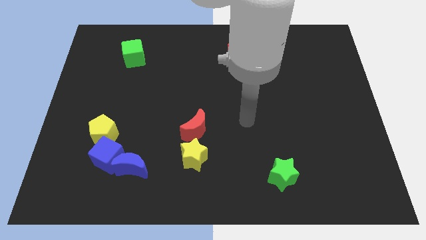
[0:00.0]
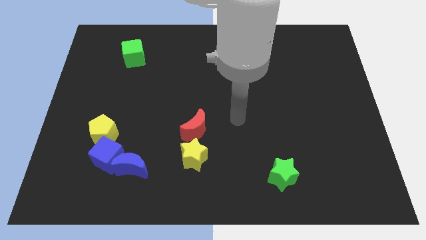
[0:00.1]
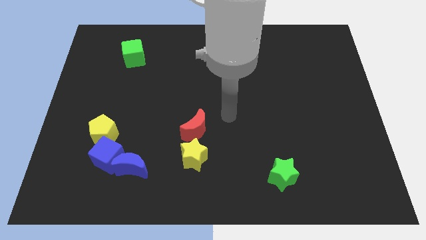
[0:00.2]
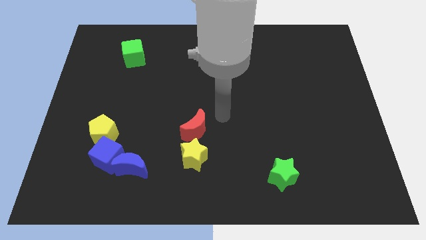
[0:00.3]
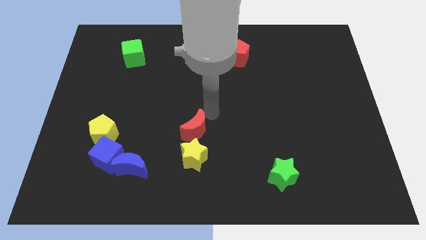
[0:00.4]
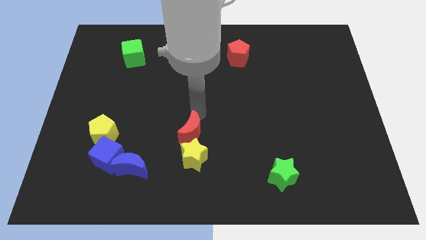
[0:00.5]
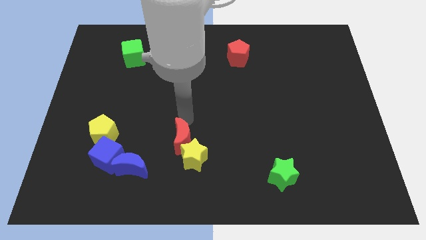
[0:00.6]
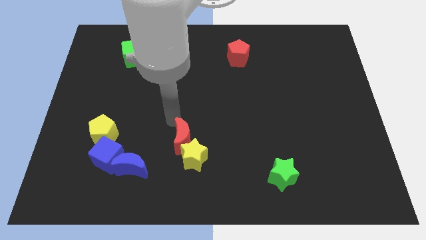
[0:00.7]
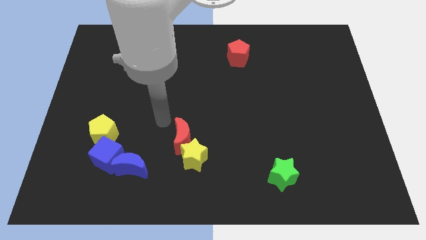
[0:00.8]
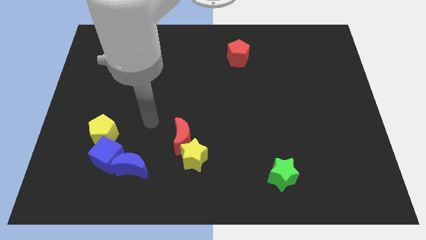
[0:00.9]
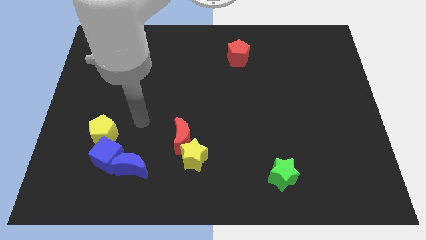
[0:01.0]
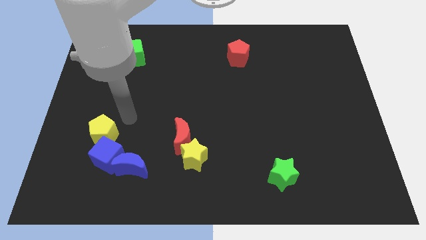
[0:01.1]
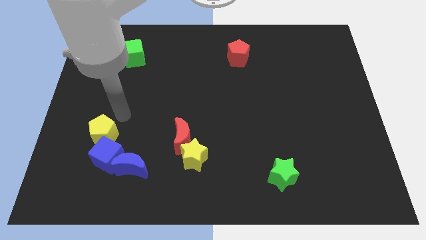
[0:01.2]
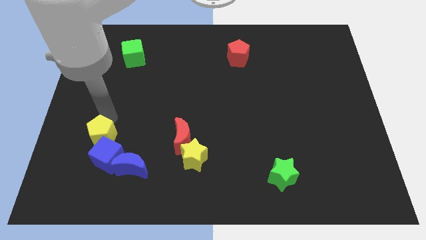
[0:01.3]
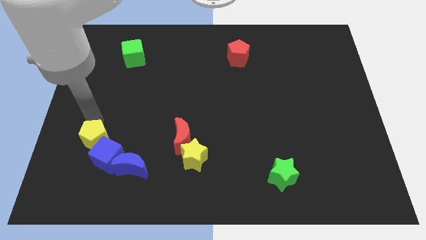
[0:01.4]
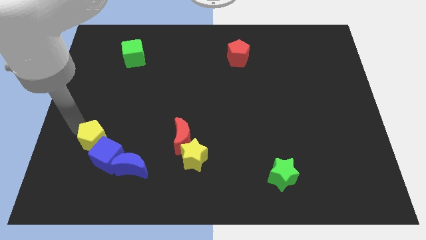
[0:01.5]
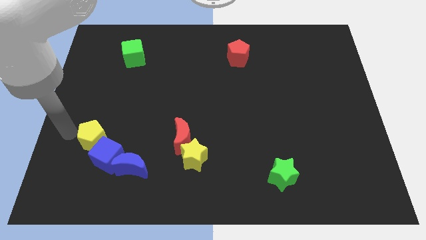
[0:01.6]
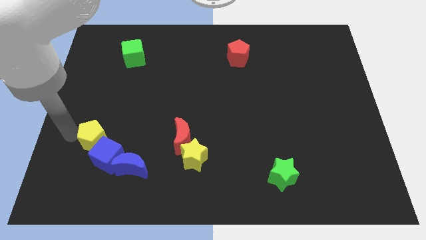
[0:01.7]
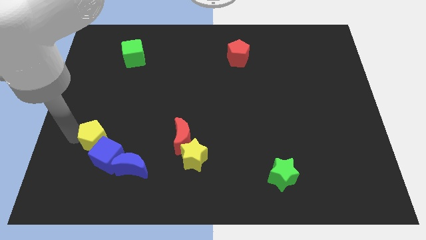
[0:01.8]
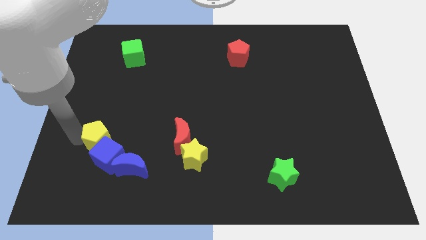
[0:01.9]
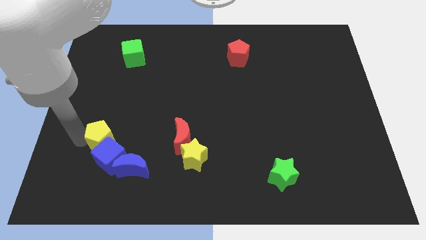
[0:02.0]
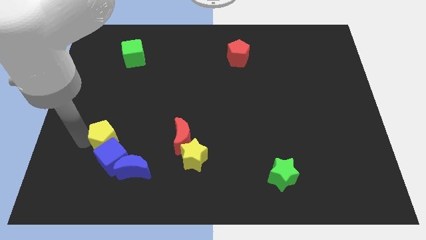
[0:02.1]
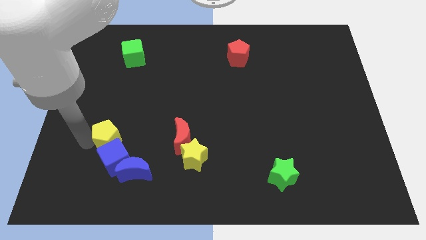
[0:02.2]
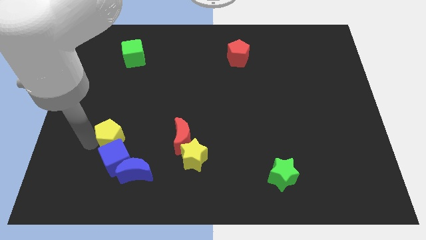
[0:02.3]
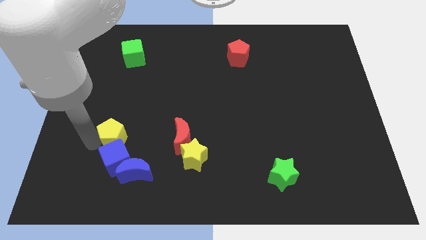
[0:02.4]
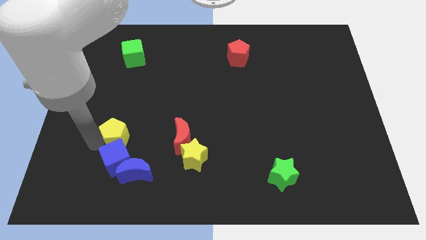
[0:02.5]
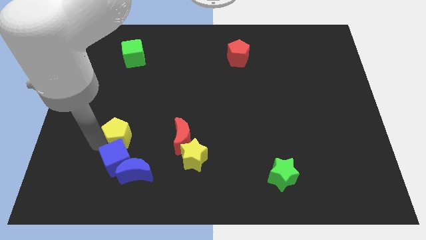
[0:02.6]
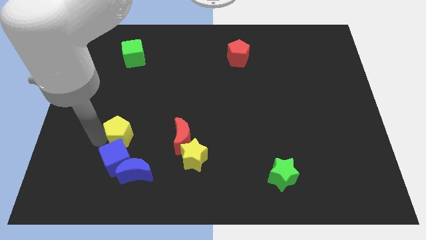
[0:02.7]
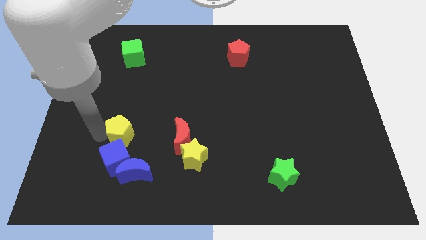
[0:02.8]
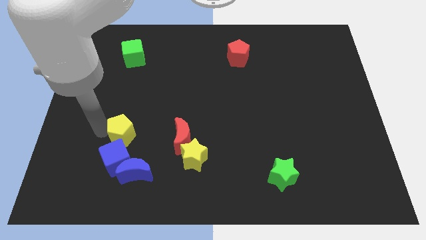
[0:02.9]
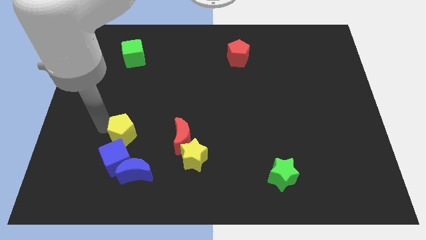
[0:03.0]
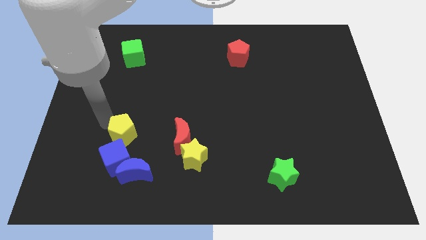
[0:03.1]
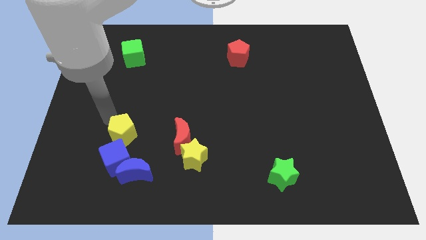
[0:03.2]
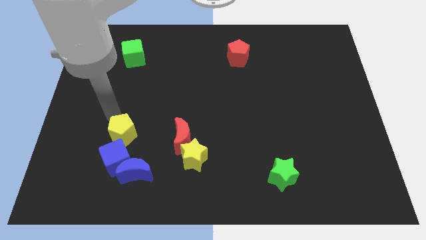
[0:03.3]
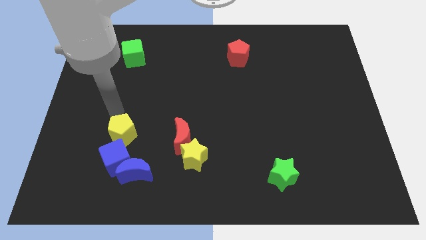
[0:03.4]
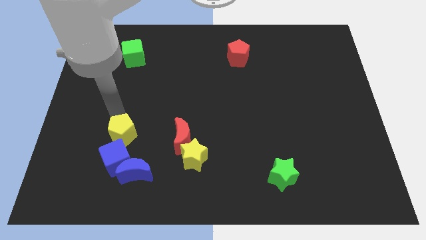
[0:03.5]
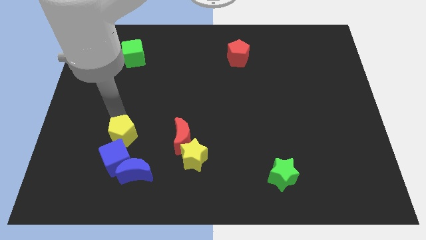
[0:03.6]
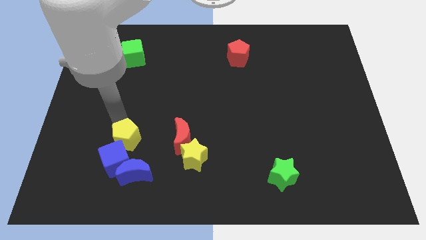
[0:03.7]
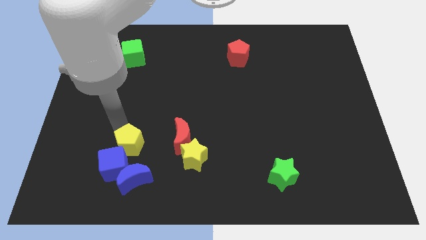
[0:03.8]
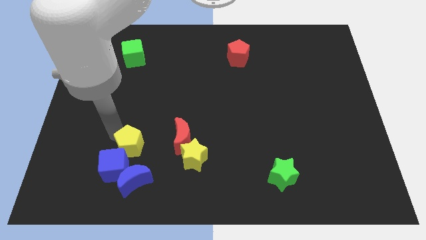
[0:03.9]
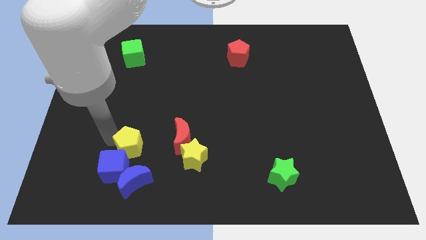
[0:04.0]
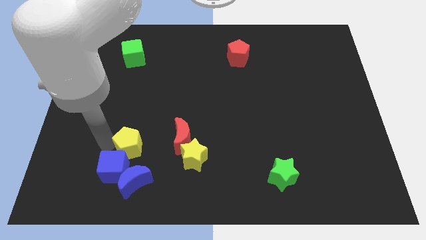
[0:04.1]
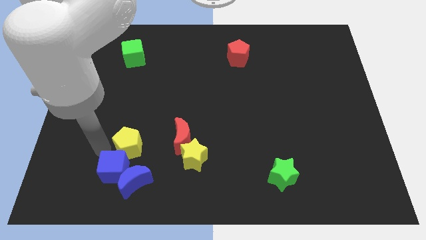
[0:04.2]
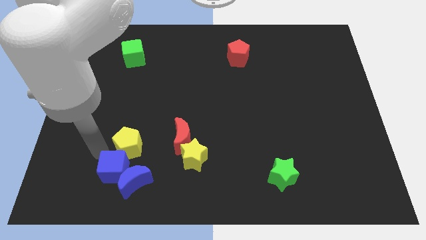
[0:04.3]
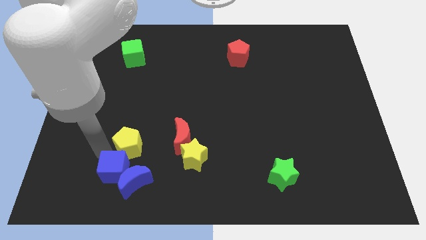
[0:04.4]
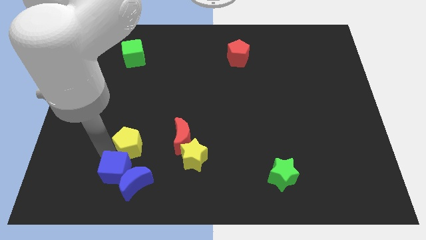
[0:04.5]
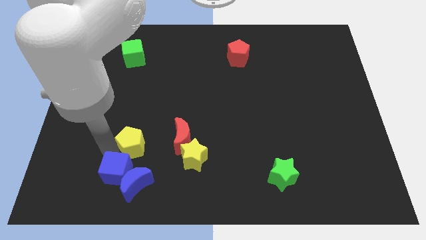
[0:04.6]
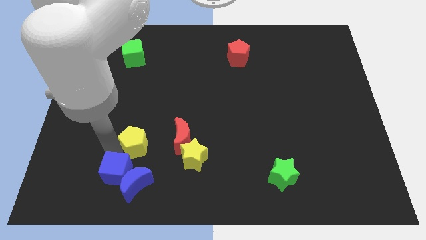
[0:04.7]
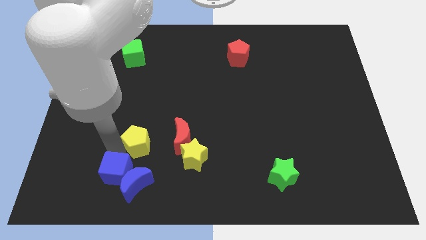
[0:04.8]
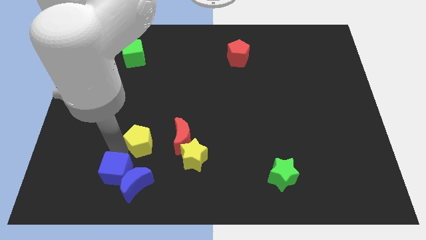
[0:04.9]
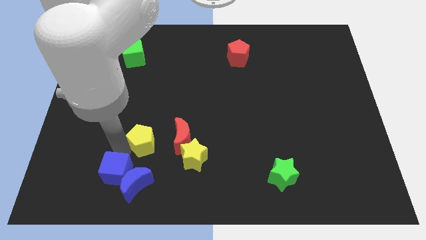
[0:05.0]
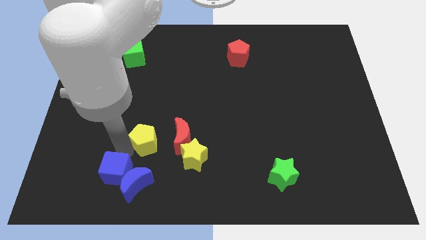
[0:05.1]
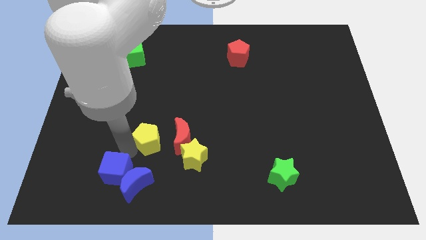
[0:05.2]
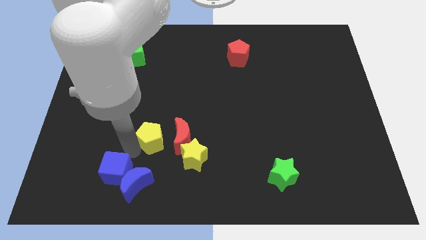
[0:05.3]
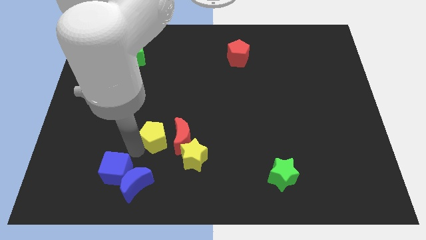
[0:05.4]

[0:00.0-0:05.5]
move the yellow pentagon towards the red moon

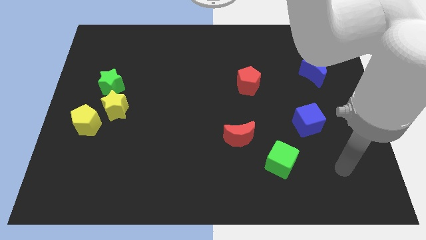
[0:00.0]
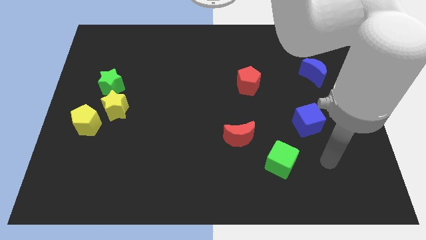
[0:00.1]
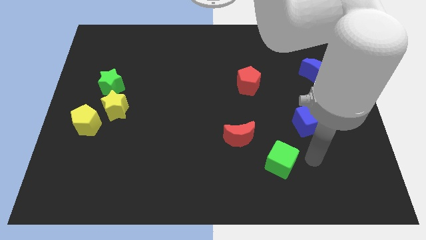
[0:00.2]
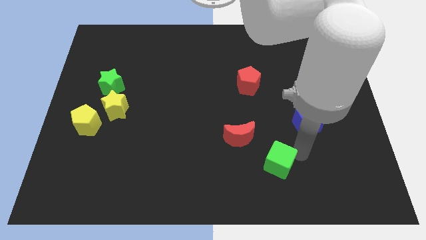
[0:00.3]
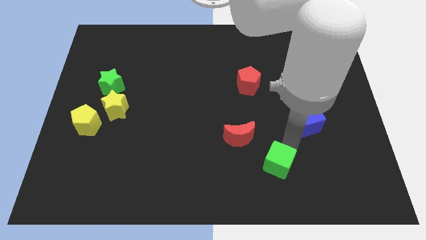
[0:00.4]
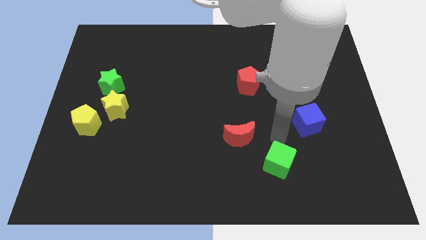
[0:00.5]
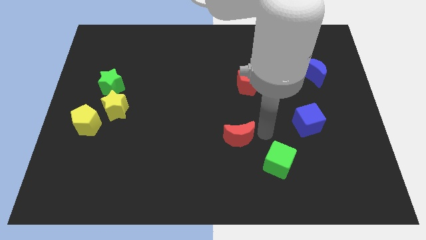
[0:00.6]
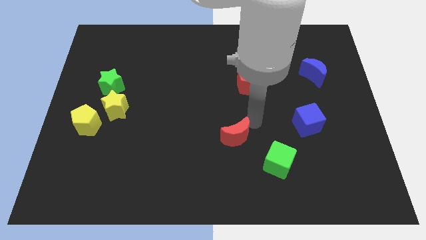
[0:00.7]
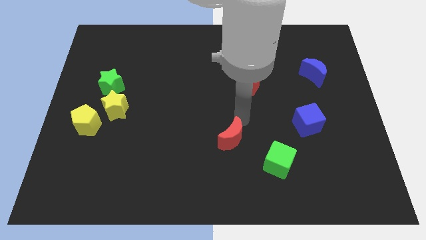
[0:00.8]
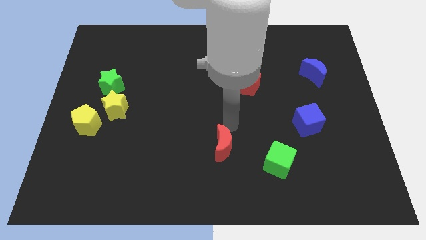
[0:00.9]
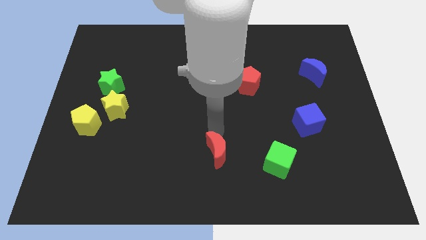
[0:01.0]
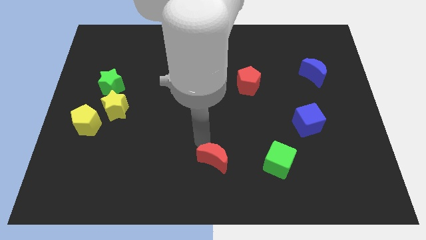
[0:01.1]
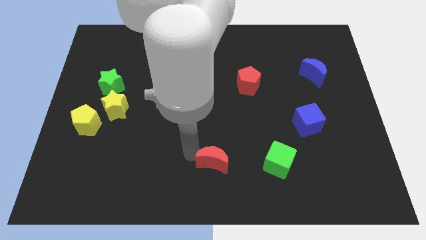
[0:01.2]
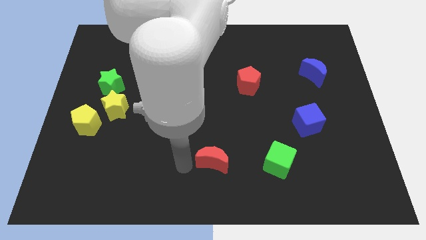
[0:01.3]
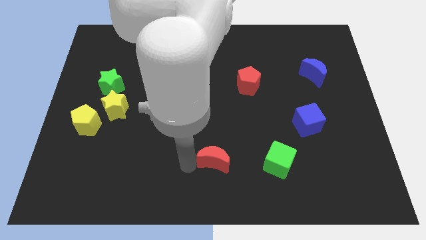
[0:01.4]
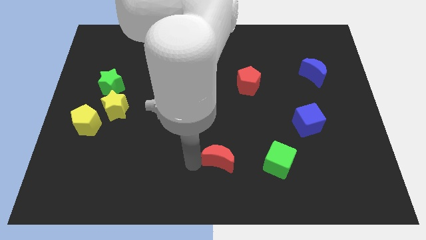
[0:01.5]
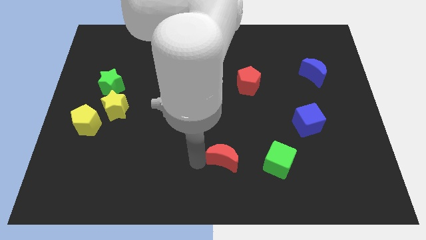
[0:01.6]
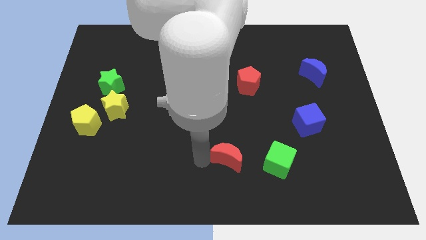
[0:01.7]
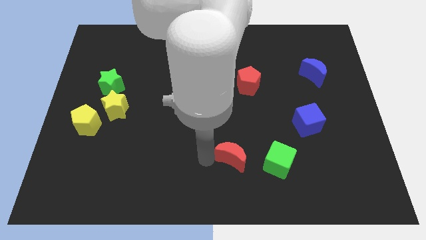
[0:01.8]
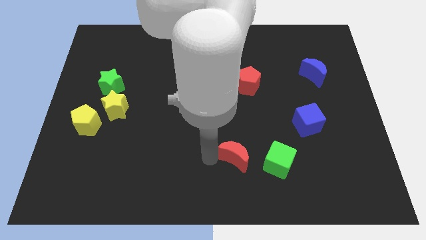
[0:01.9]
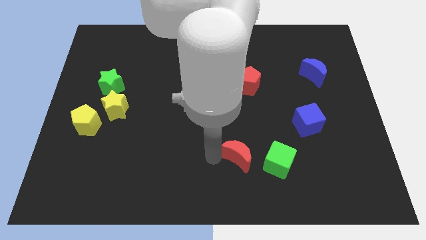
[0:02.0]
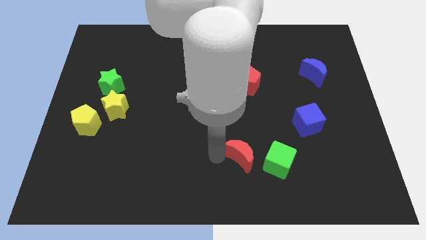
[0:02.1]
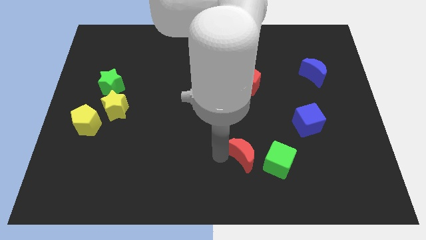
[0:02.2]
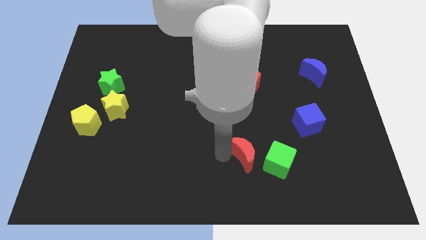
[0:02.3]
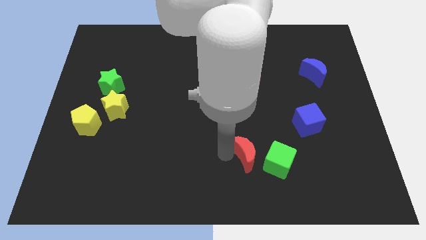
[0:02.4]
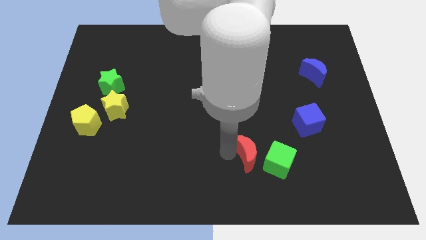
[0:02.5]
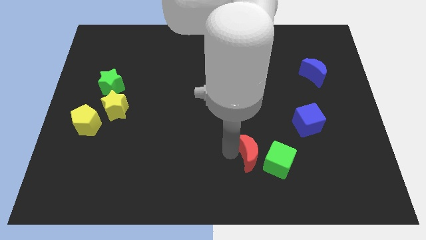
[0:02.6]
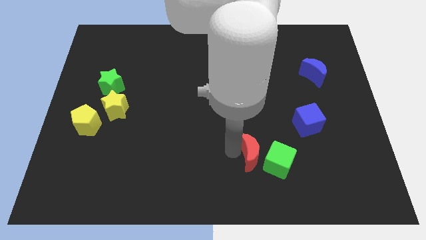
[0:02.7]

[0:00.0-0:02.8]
push the red moon towards the green cube
